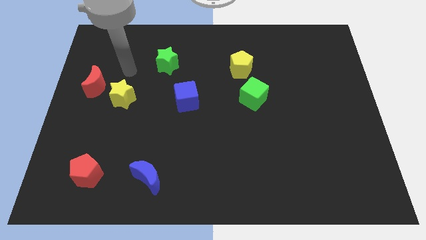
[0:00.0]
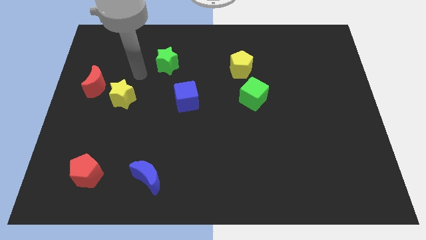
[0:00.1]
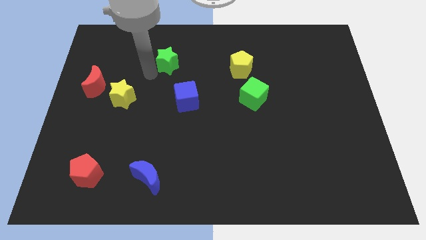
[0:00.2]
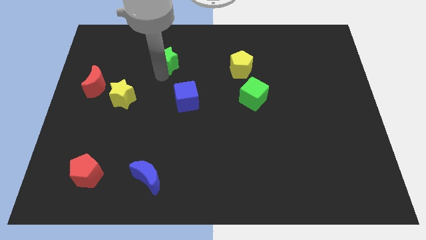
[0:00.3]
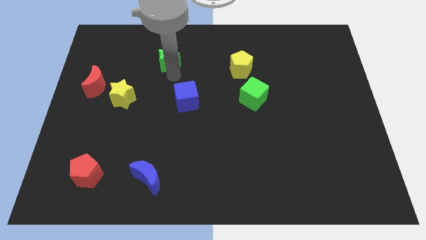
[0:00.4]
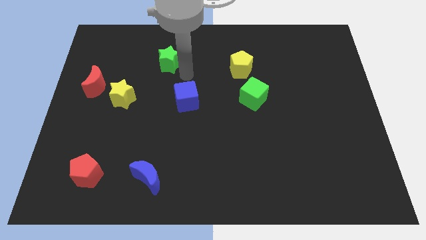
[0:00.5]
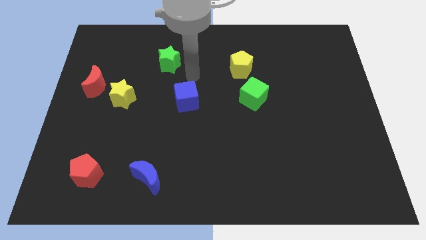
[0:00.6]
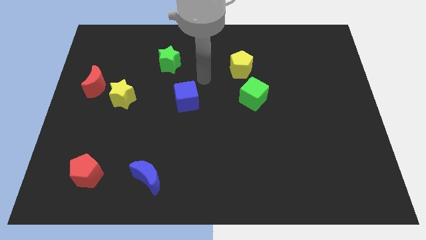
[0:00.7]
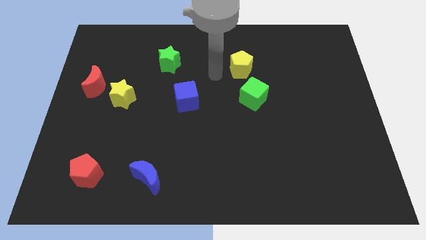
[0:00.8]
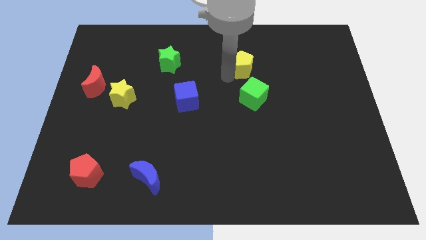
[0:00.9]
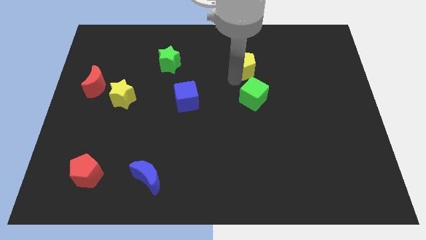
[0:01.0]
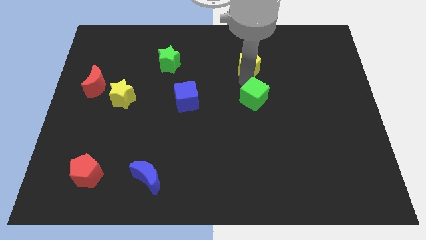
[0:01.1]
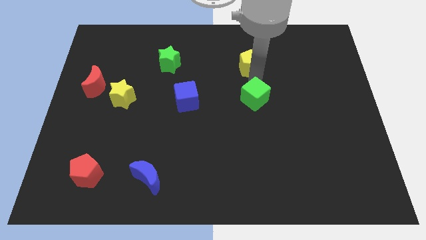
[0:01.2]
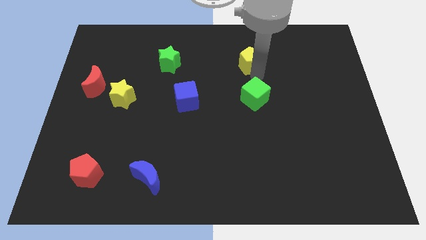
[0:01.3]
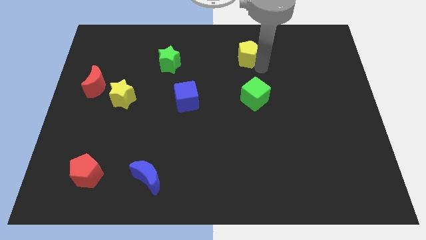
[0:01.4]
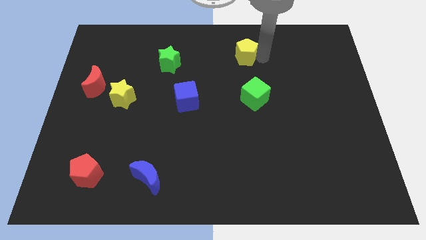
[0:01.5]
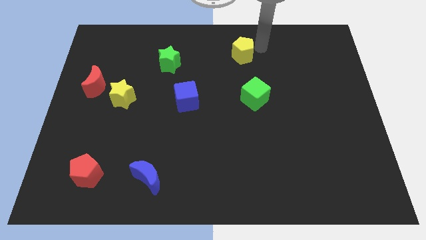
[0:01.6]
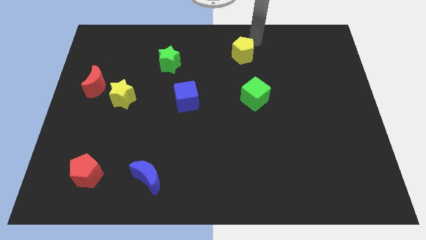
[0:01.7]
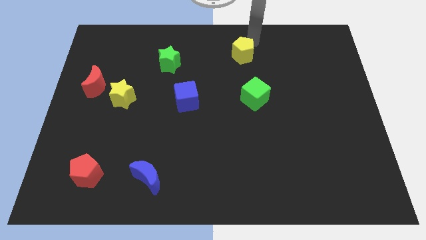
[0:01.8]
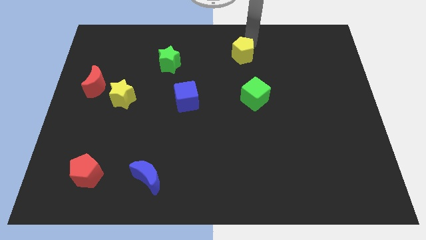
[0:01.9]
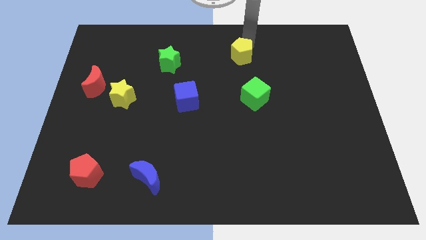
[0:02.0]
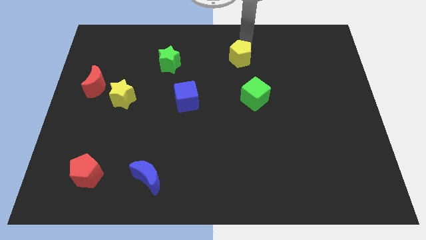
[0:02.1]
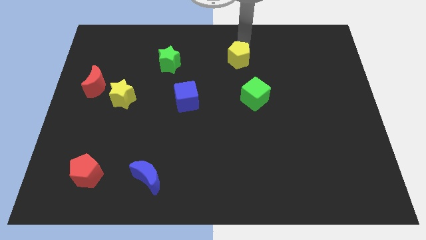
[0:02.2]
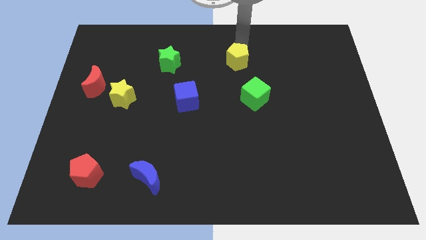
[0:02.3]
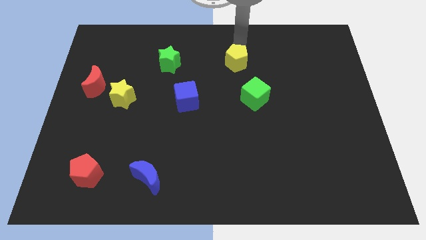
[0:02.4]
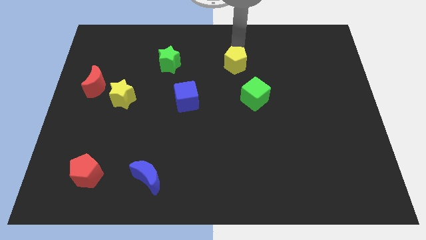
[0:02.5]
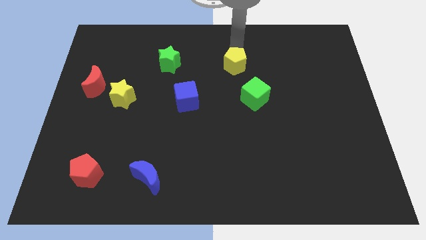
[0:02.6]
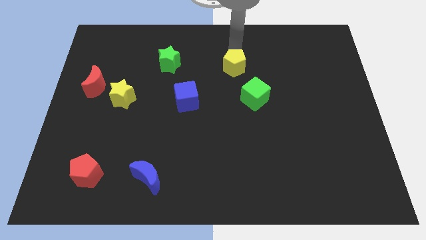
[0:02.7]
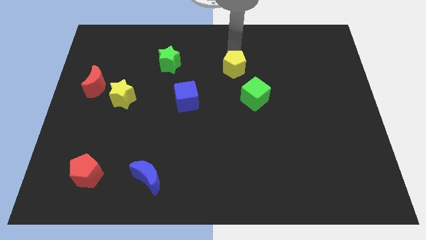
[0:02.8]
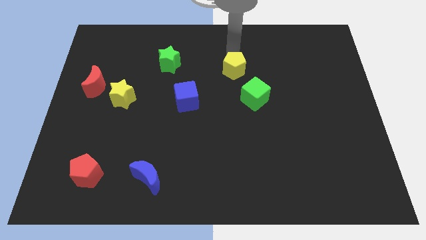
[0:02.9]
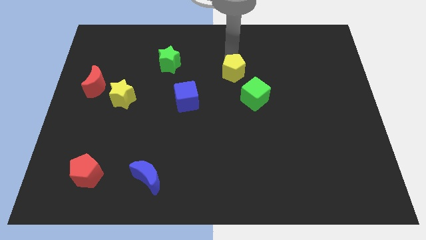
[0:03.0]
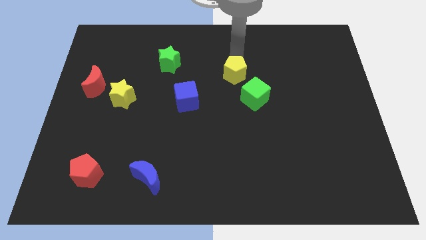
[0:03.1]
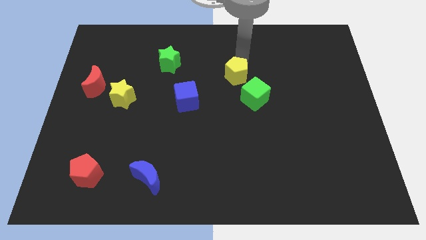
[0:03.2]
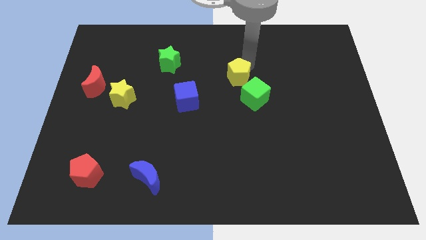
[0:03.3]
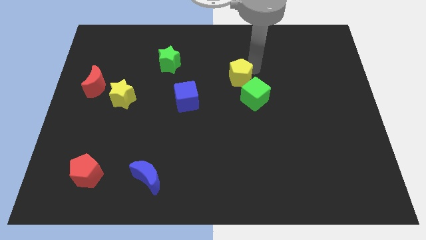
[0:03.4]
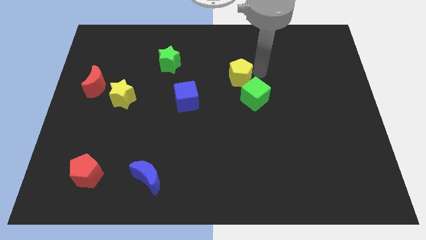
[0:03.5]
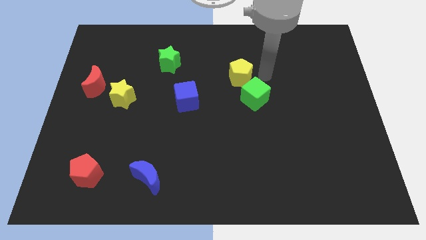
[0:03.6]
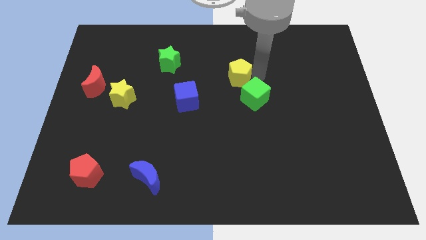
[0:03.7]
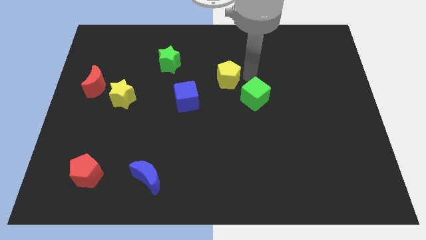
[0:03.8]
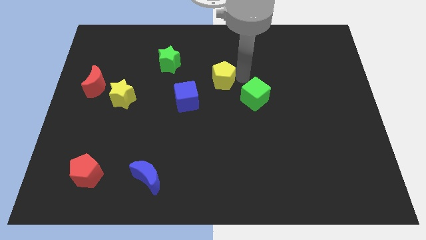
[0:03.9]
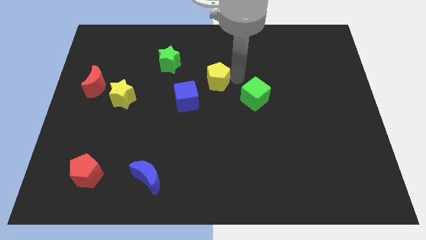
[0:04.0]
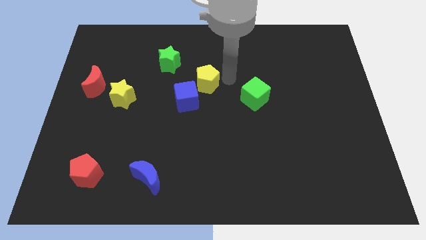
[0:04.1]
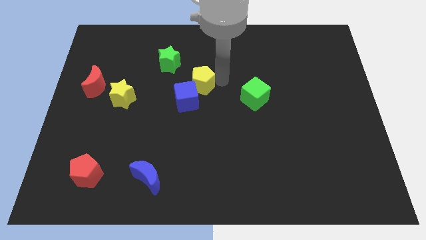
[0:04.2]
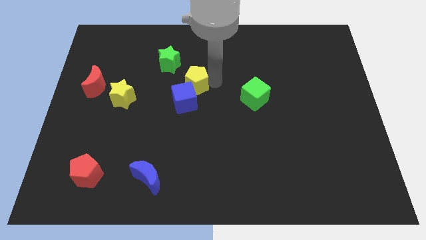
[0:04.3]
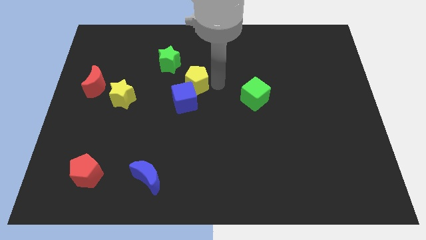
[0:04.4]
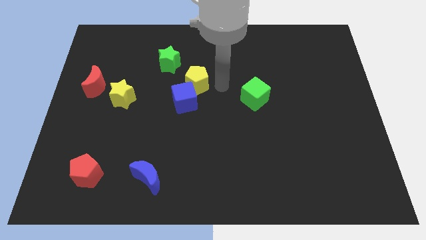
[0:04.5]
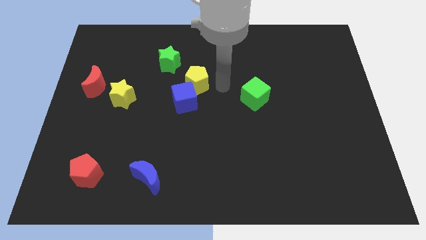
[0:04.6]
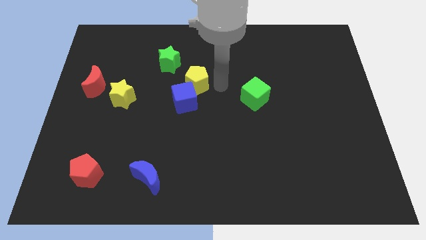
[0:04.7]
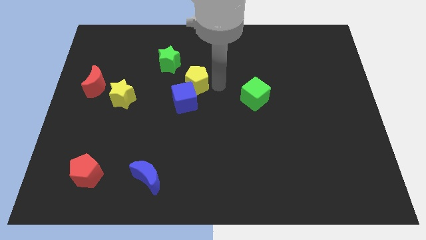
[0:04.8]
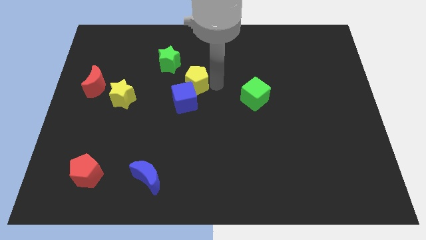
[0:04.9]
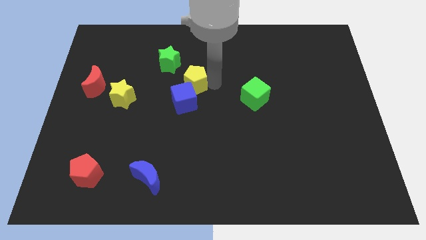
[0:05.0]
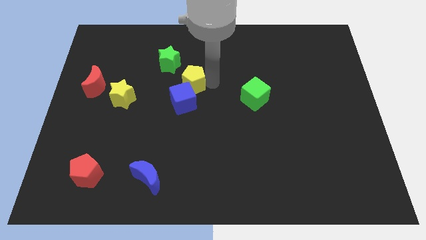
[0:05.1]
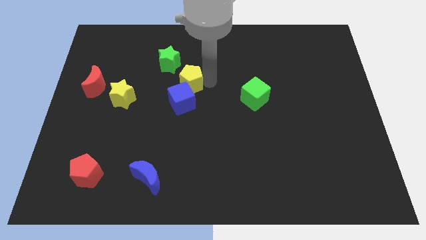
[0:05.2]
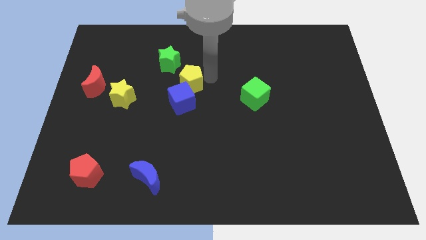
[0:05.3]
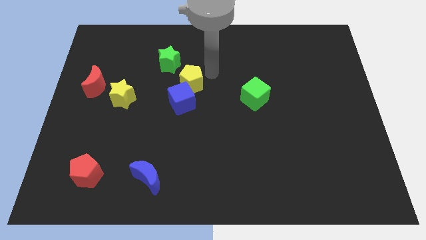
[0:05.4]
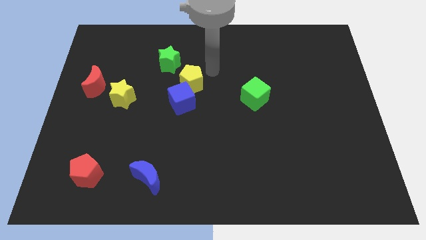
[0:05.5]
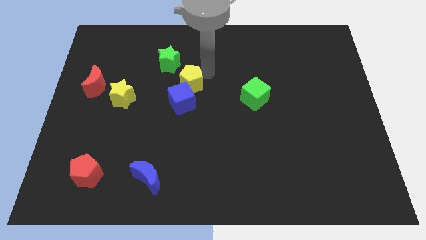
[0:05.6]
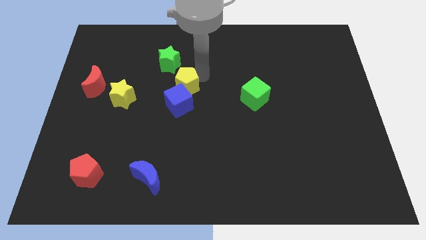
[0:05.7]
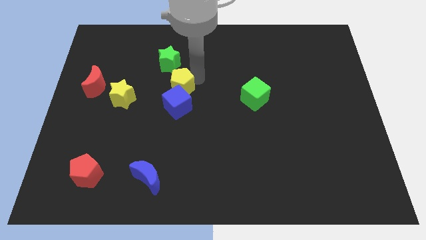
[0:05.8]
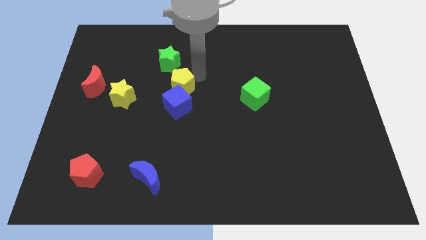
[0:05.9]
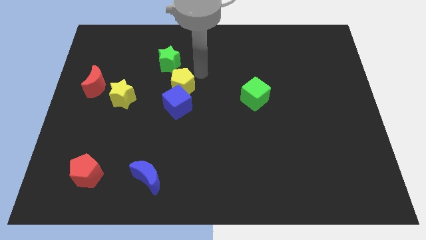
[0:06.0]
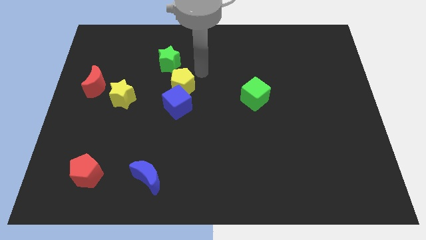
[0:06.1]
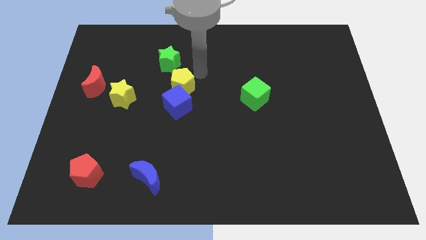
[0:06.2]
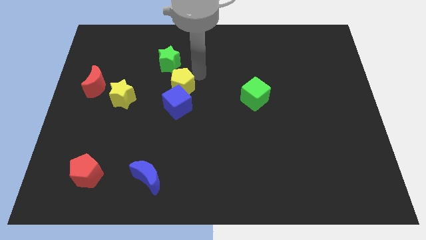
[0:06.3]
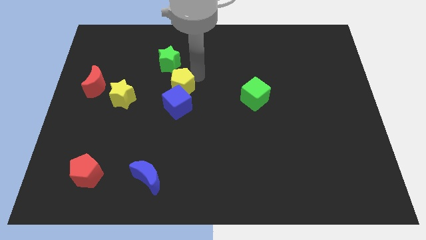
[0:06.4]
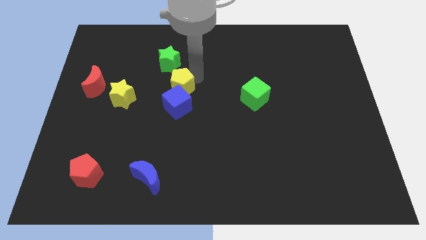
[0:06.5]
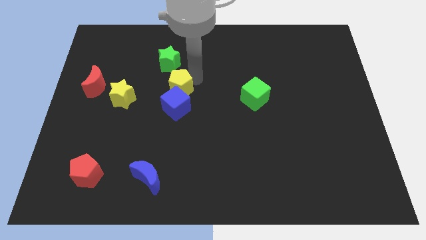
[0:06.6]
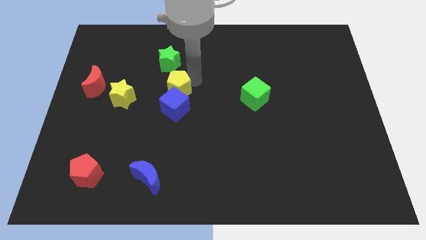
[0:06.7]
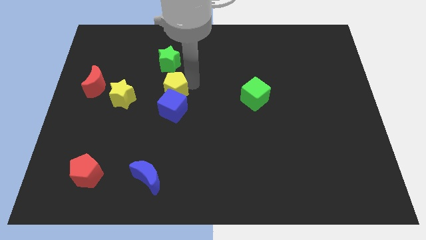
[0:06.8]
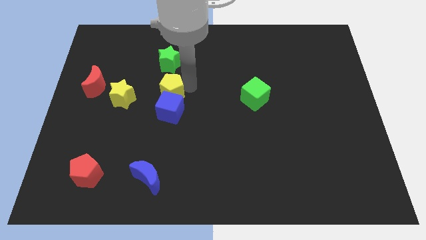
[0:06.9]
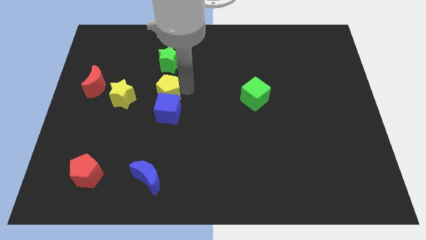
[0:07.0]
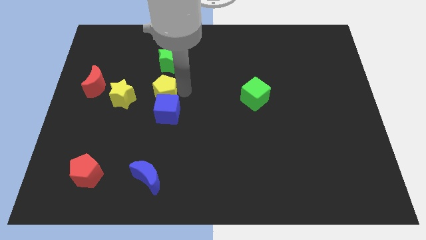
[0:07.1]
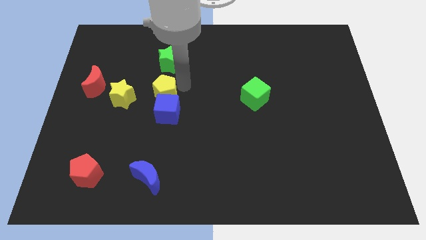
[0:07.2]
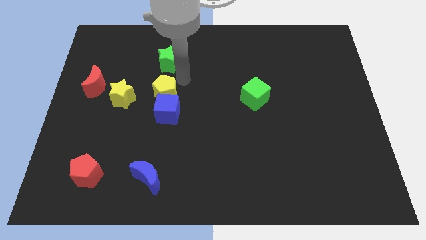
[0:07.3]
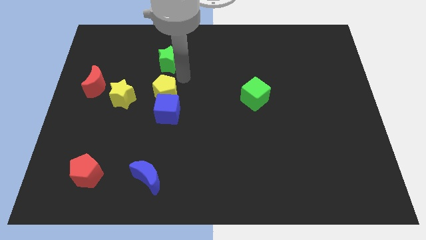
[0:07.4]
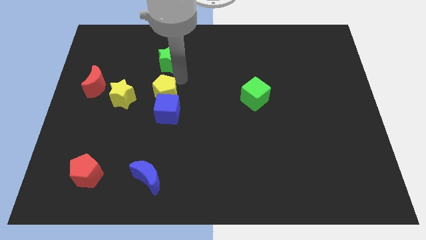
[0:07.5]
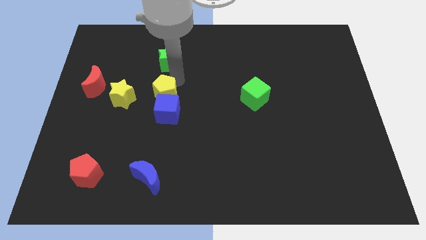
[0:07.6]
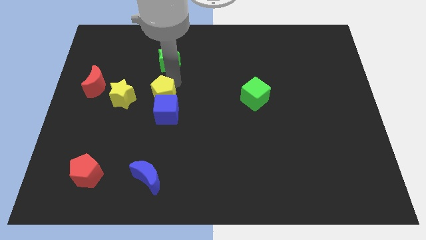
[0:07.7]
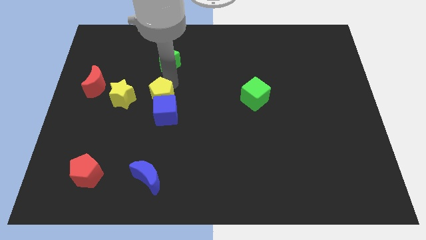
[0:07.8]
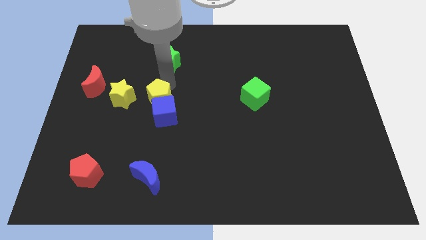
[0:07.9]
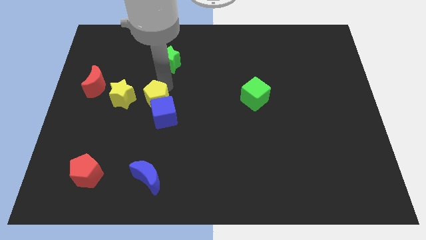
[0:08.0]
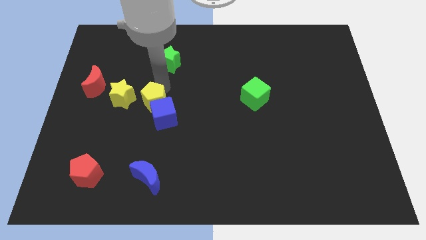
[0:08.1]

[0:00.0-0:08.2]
move the yellow pentagon diagonally down and to the right of the yellow star

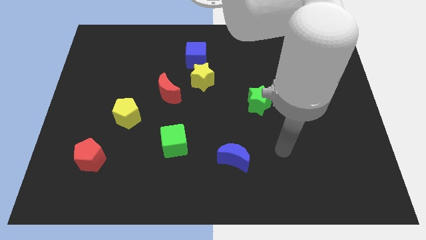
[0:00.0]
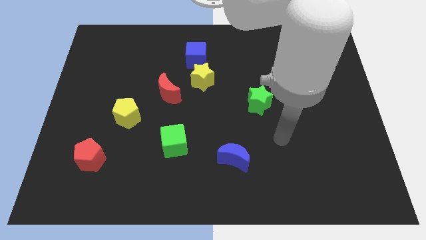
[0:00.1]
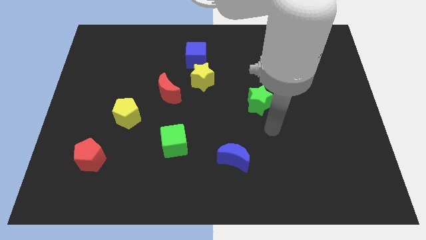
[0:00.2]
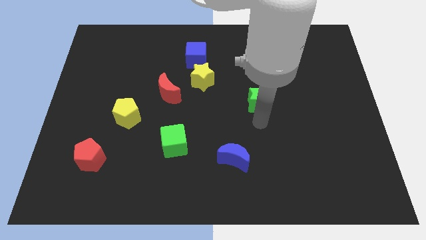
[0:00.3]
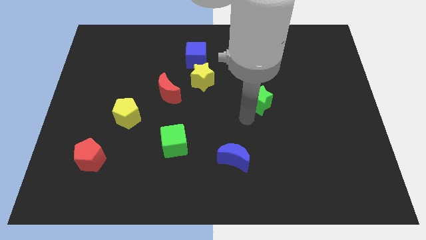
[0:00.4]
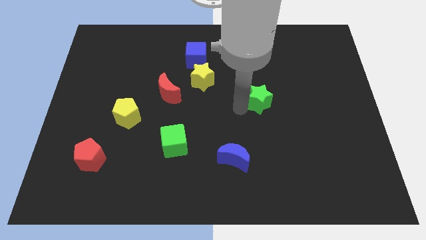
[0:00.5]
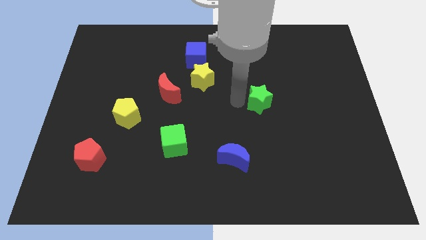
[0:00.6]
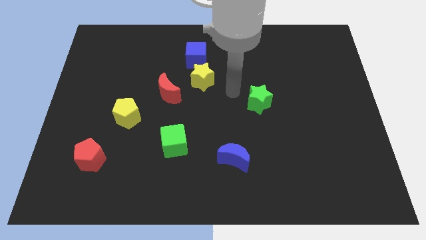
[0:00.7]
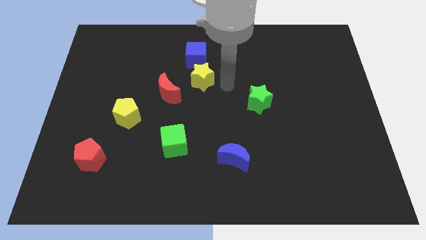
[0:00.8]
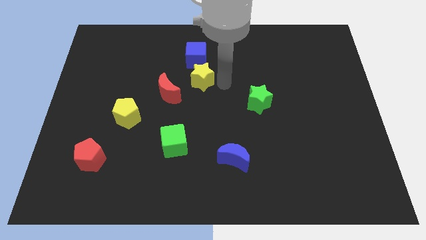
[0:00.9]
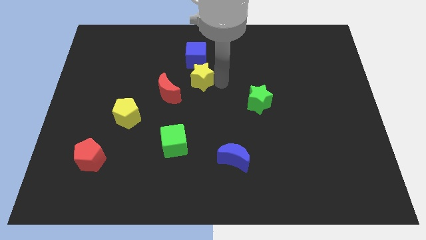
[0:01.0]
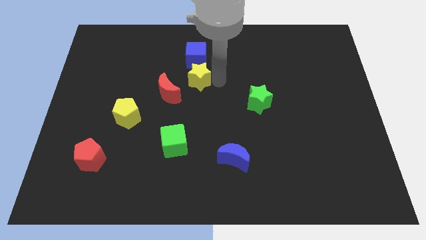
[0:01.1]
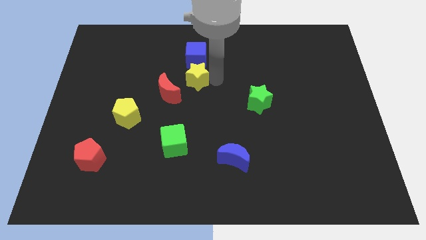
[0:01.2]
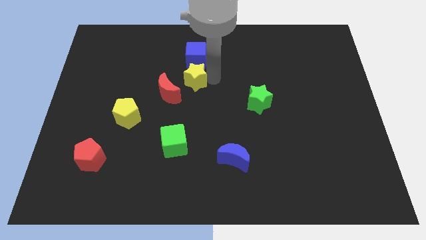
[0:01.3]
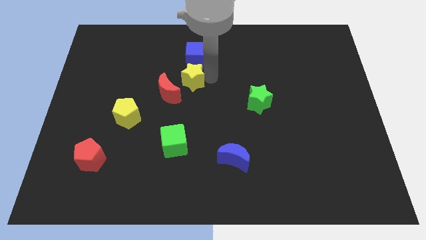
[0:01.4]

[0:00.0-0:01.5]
put the yellow star to the bottom left of the blue cube
